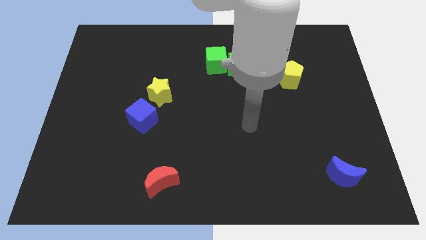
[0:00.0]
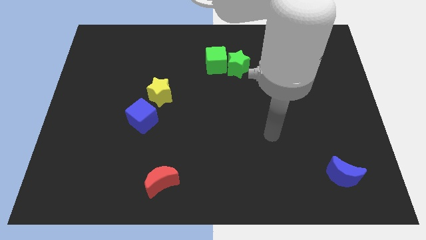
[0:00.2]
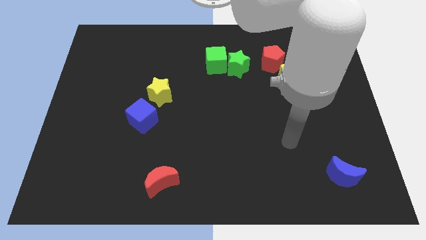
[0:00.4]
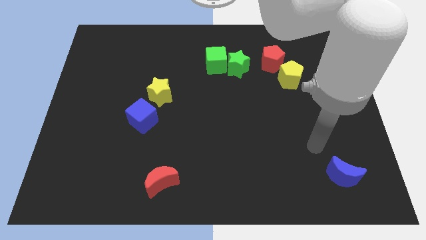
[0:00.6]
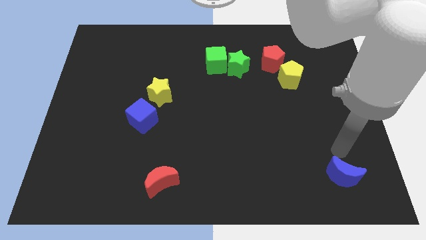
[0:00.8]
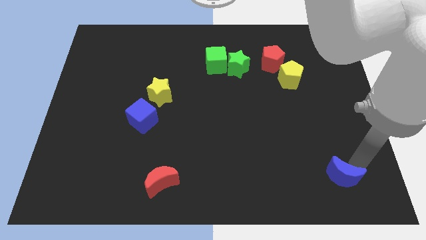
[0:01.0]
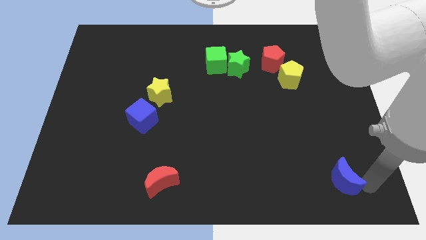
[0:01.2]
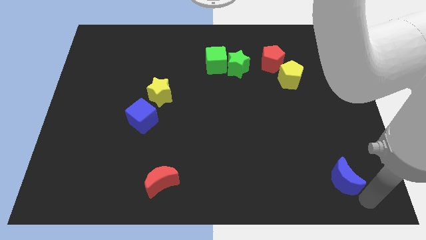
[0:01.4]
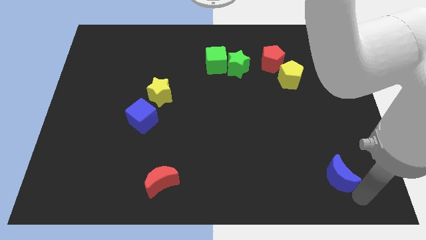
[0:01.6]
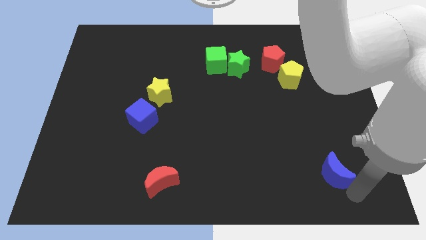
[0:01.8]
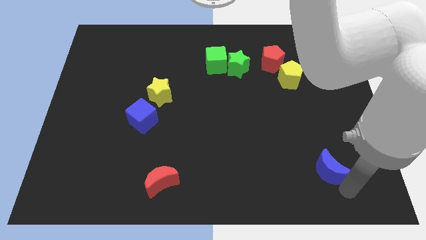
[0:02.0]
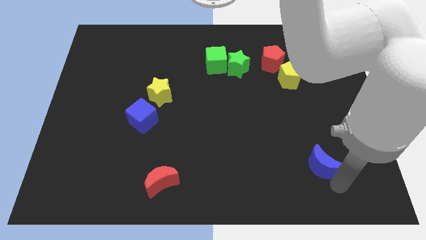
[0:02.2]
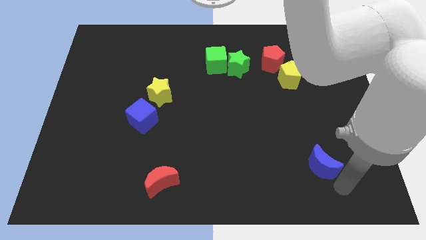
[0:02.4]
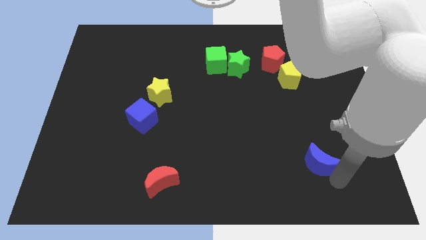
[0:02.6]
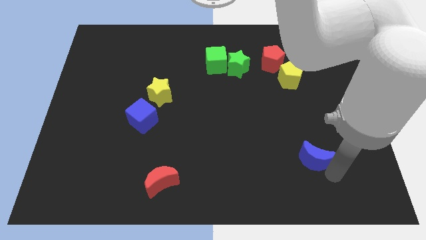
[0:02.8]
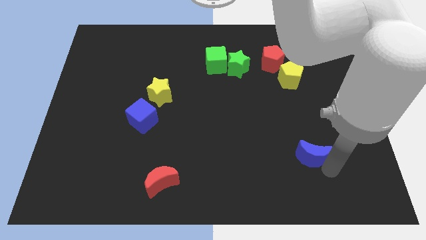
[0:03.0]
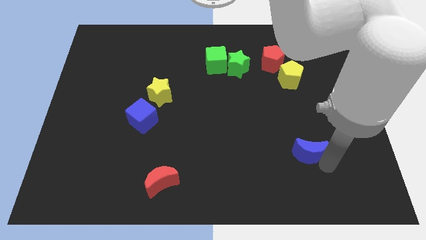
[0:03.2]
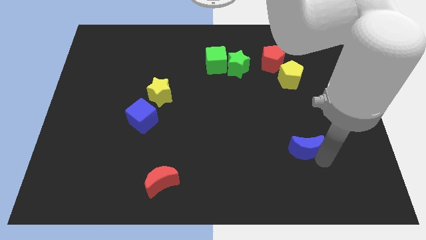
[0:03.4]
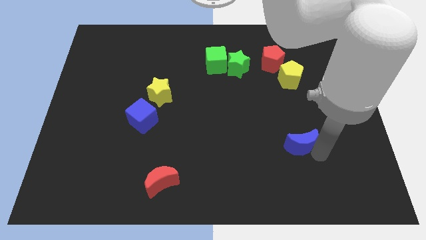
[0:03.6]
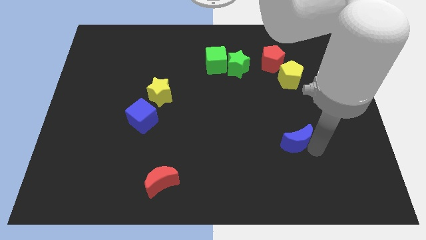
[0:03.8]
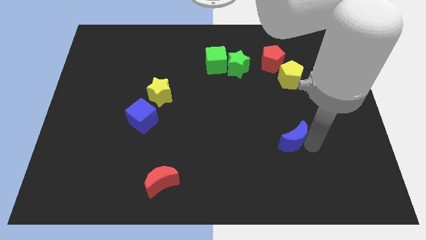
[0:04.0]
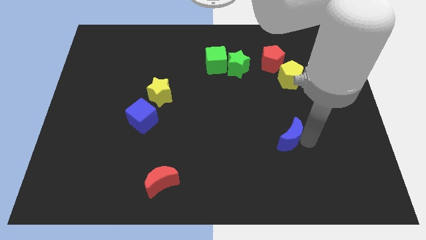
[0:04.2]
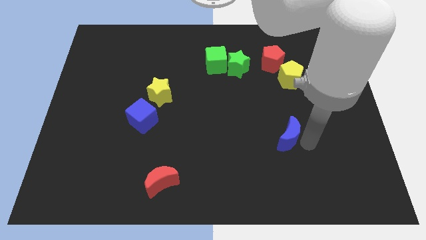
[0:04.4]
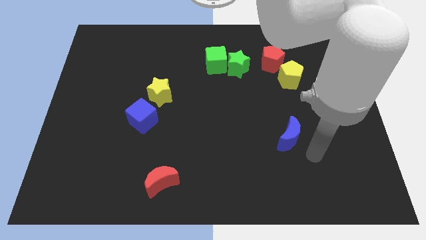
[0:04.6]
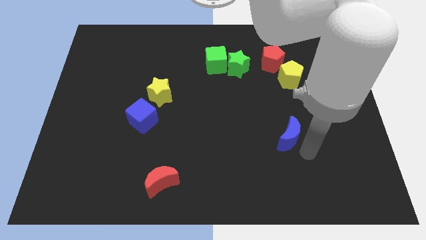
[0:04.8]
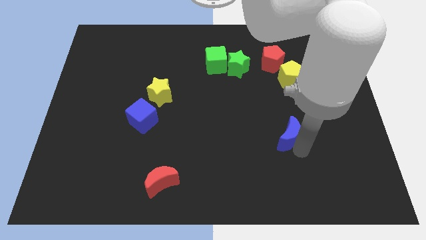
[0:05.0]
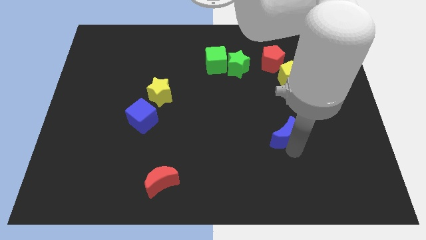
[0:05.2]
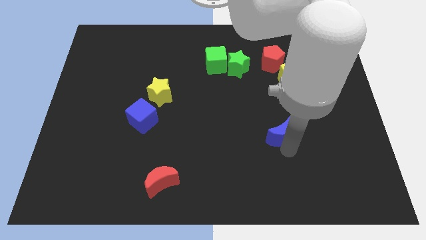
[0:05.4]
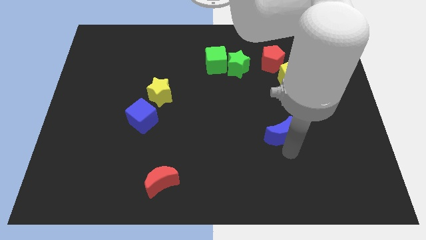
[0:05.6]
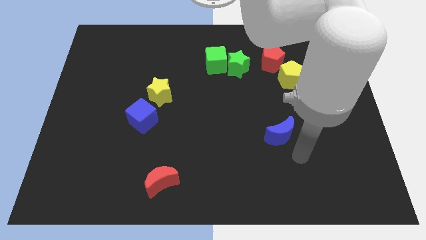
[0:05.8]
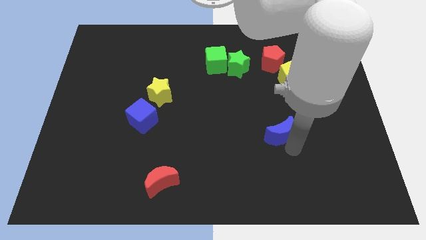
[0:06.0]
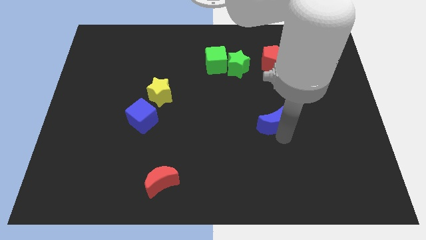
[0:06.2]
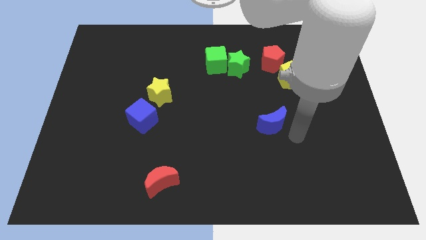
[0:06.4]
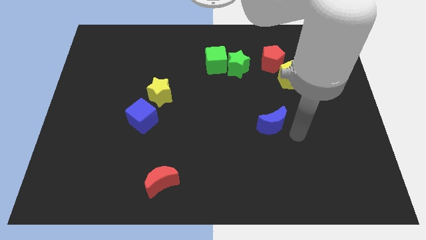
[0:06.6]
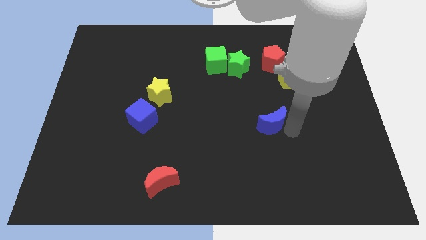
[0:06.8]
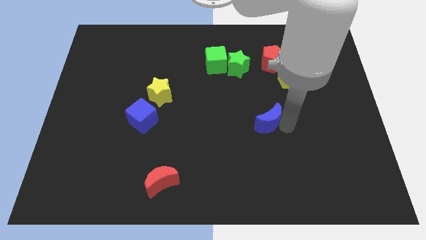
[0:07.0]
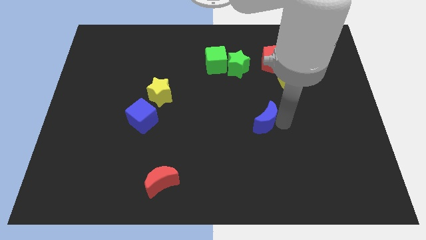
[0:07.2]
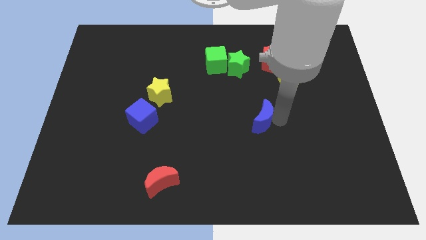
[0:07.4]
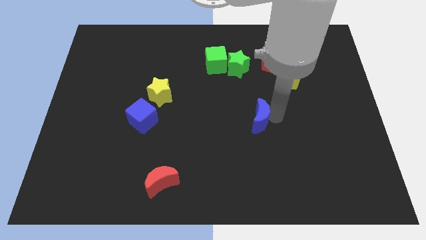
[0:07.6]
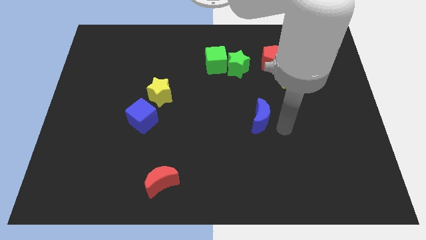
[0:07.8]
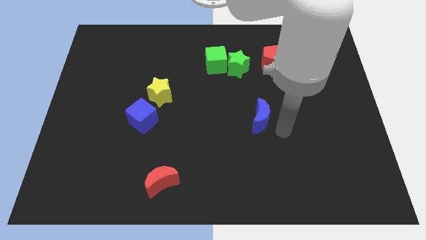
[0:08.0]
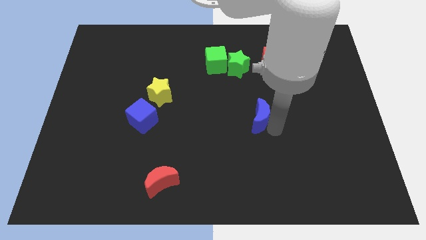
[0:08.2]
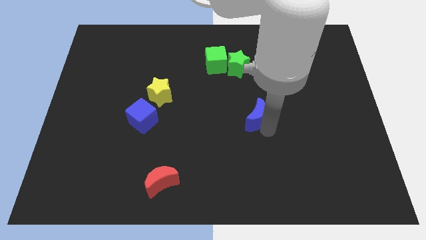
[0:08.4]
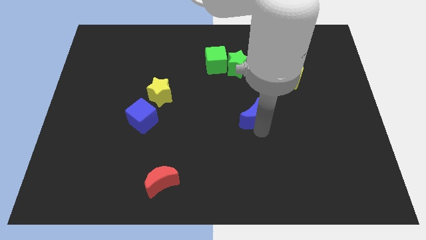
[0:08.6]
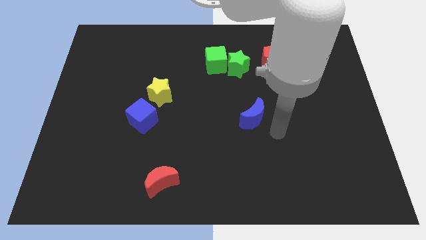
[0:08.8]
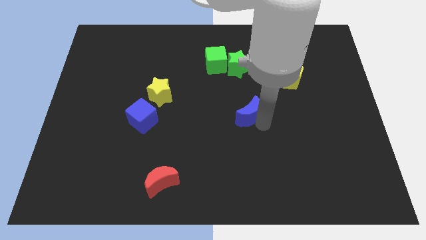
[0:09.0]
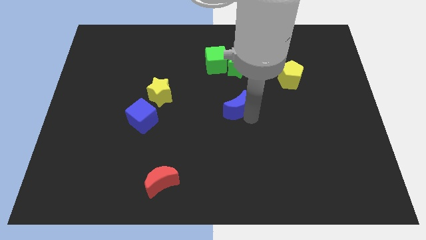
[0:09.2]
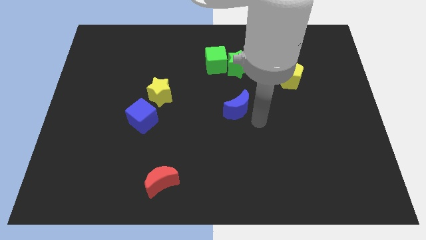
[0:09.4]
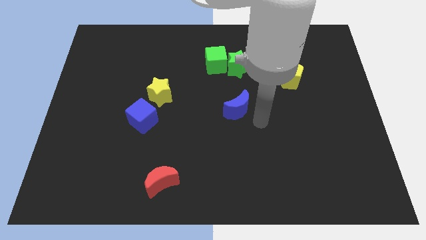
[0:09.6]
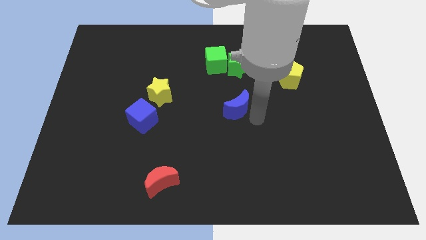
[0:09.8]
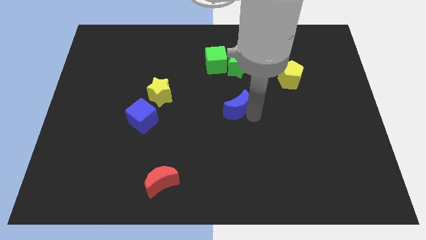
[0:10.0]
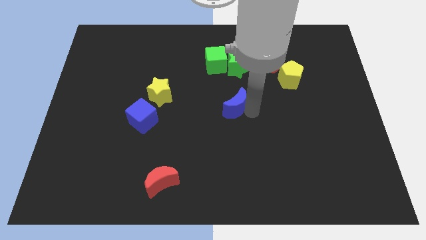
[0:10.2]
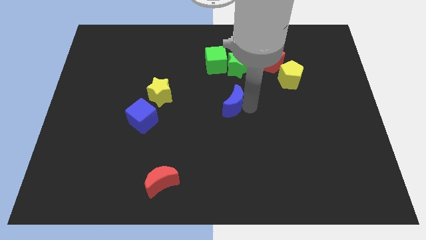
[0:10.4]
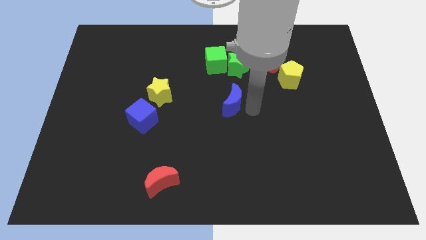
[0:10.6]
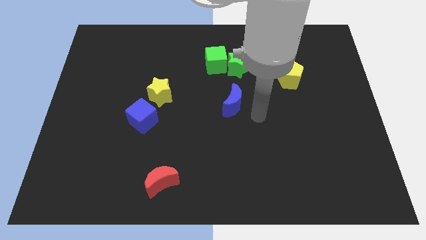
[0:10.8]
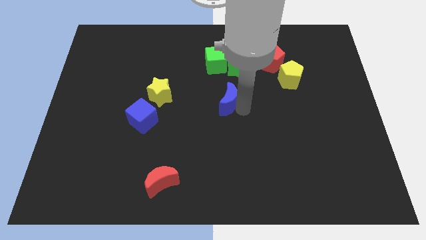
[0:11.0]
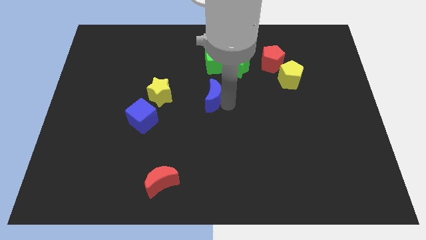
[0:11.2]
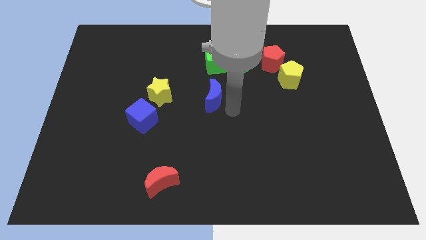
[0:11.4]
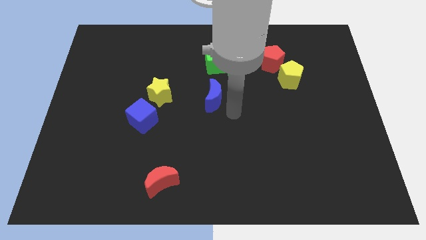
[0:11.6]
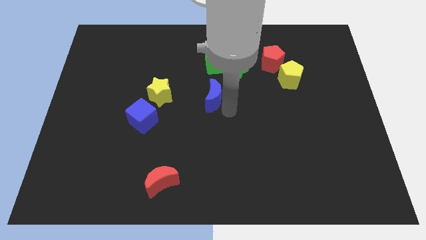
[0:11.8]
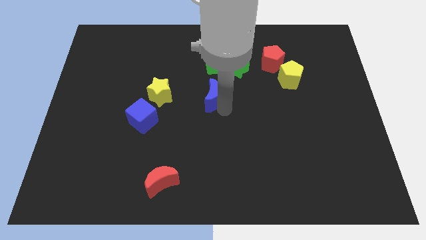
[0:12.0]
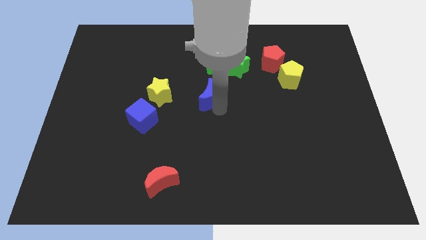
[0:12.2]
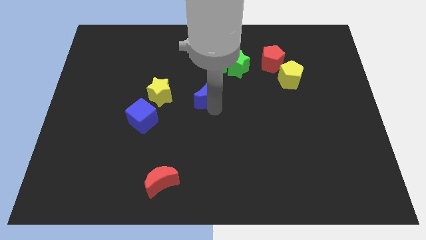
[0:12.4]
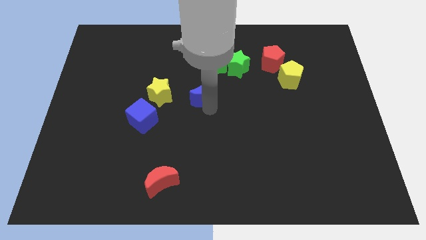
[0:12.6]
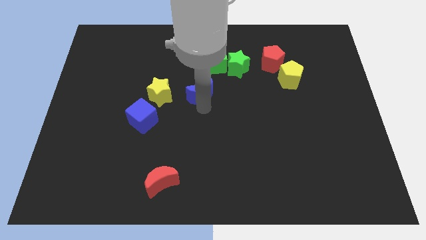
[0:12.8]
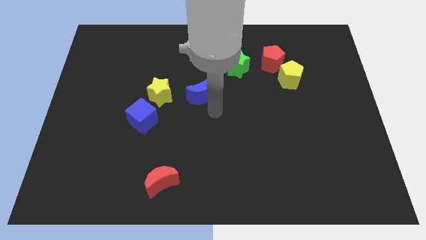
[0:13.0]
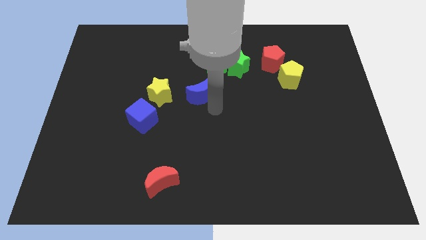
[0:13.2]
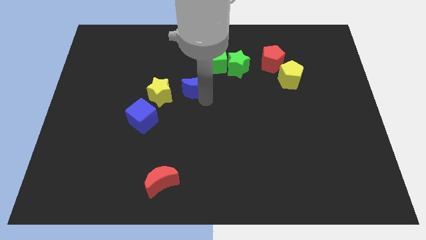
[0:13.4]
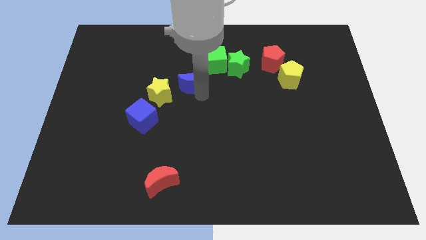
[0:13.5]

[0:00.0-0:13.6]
move the blue moon diagonally up and to the right of the yellow star

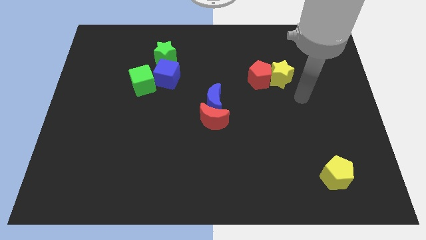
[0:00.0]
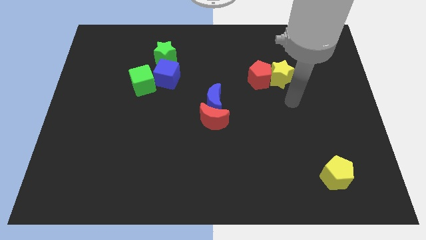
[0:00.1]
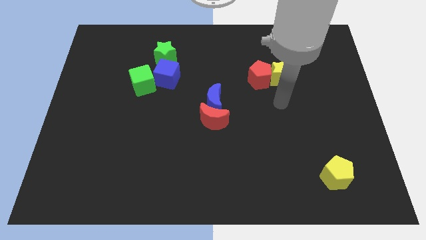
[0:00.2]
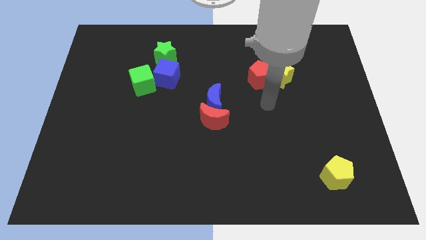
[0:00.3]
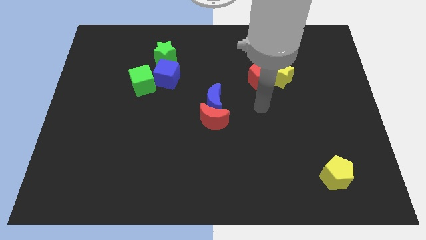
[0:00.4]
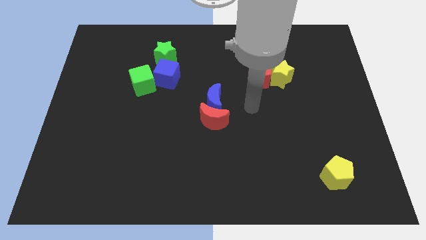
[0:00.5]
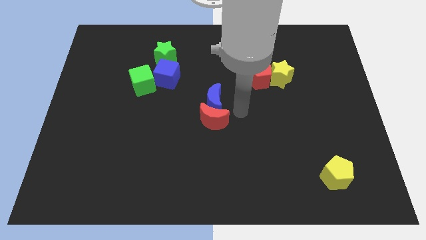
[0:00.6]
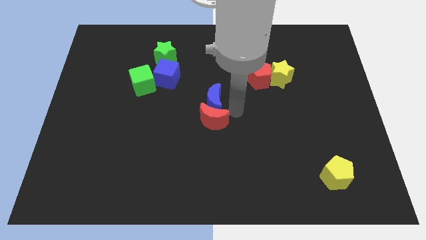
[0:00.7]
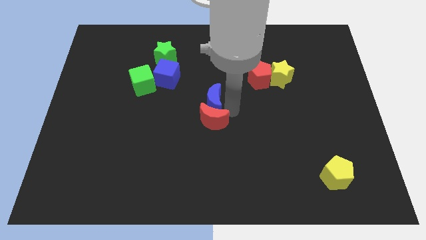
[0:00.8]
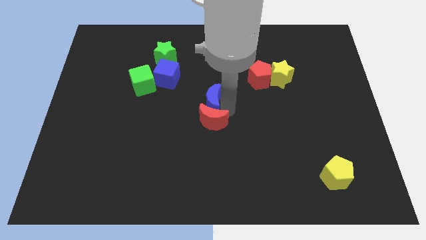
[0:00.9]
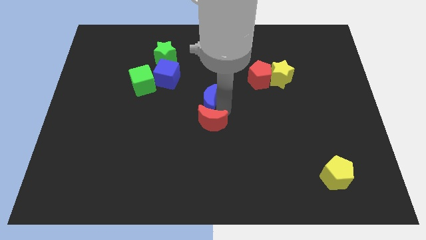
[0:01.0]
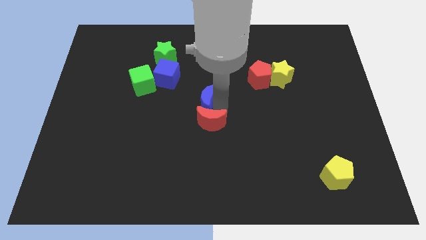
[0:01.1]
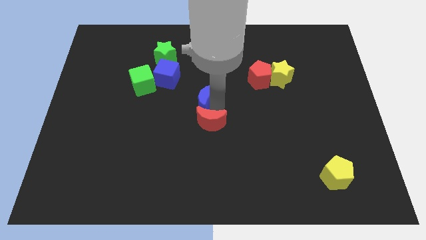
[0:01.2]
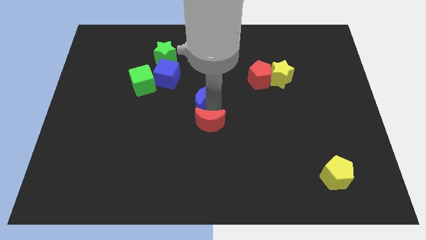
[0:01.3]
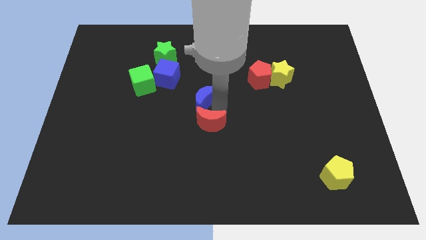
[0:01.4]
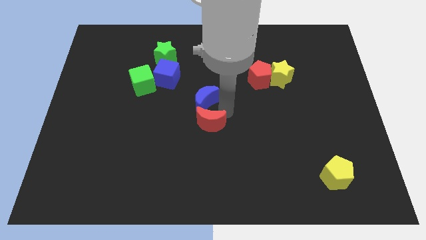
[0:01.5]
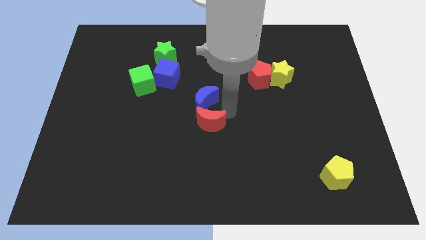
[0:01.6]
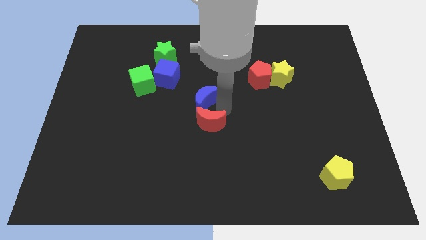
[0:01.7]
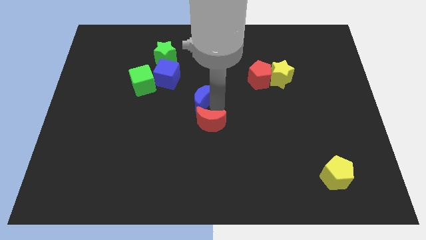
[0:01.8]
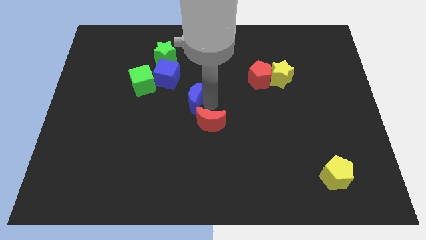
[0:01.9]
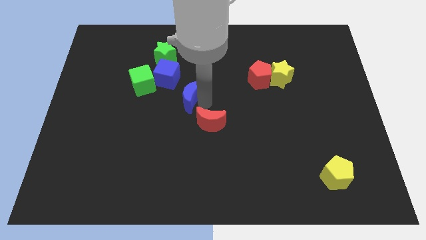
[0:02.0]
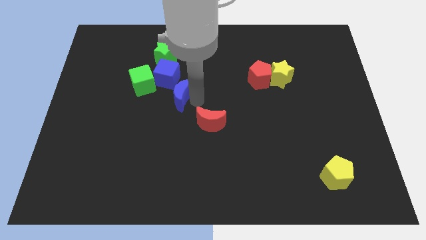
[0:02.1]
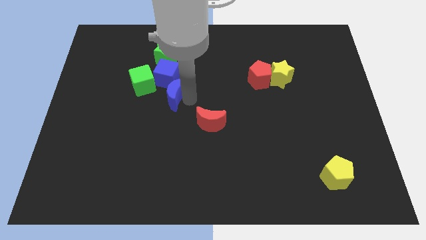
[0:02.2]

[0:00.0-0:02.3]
move the blue moon to the bottom side of the green star
